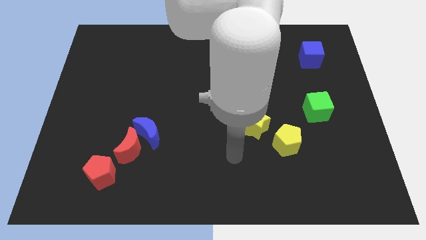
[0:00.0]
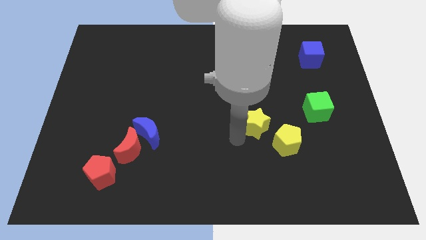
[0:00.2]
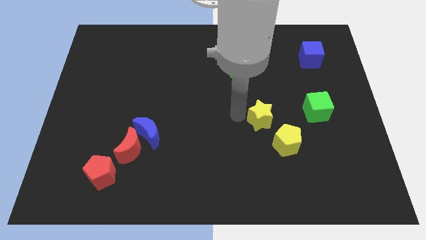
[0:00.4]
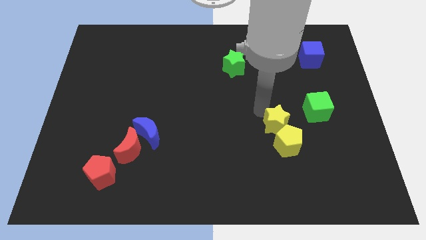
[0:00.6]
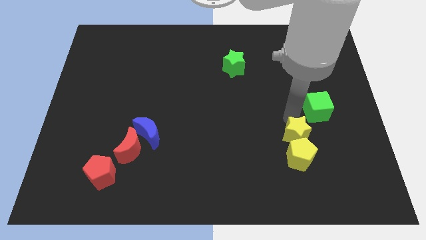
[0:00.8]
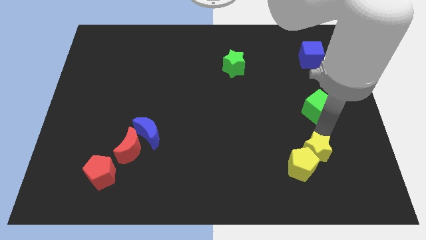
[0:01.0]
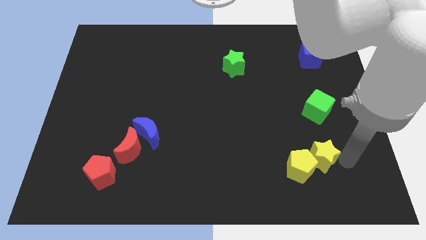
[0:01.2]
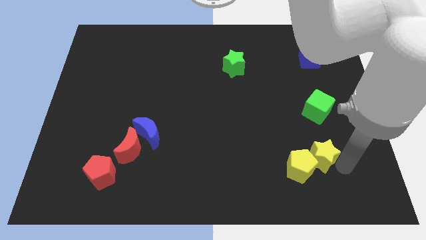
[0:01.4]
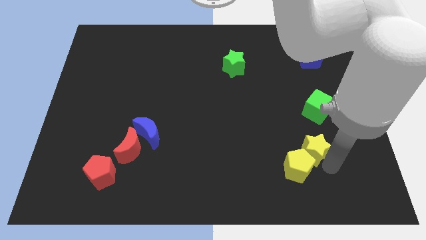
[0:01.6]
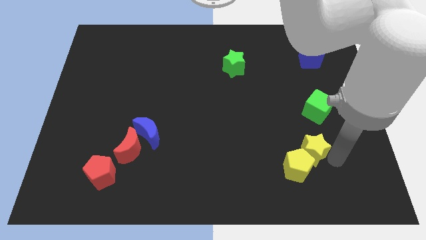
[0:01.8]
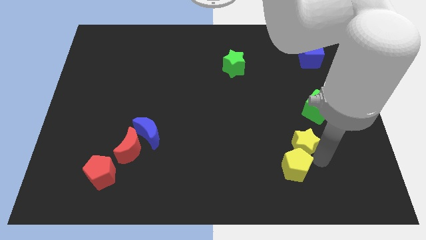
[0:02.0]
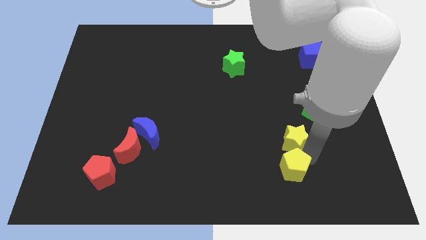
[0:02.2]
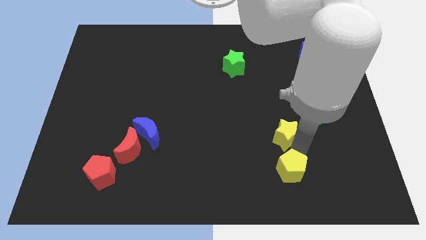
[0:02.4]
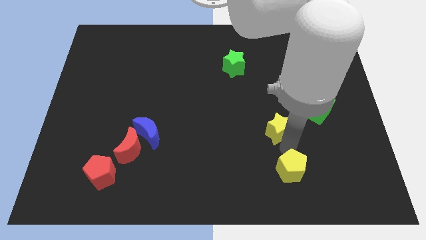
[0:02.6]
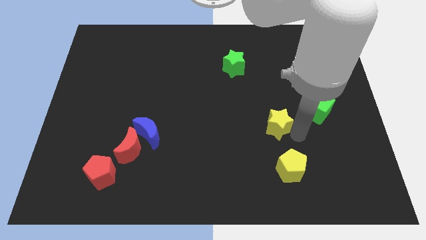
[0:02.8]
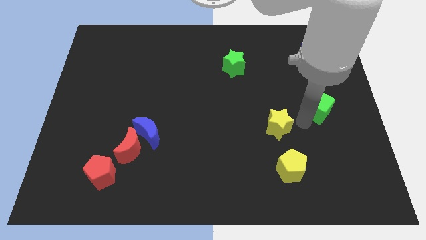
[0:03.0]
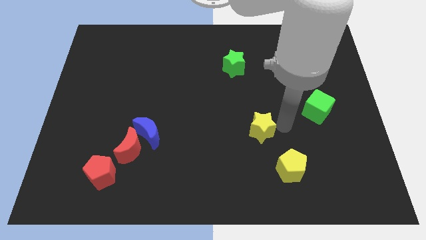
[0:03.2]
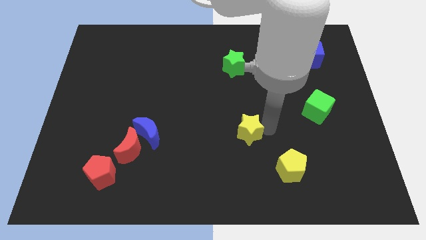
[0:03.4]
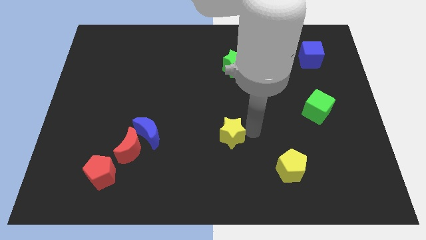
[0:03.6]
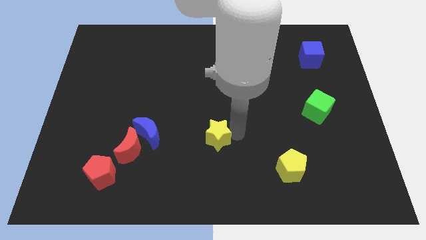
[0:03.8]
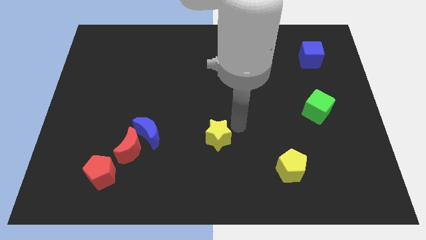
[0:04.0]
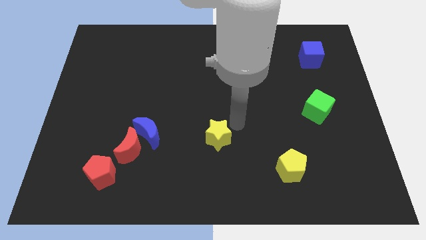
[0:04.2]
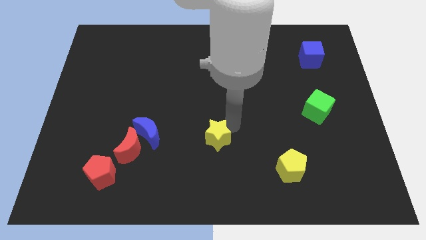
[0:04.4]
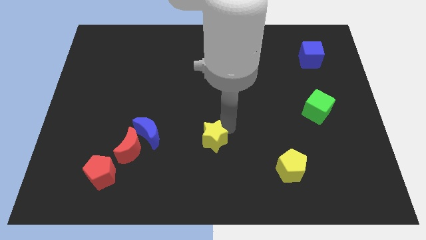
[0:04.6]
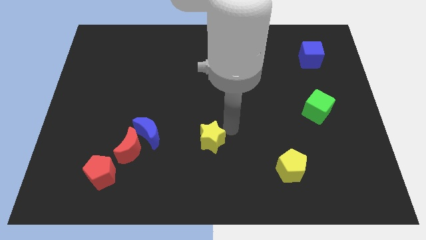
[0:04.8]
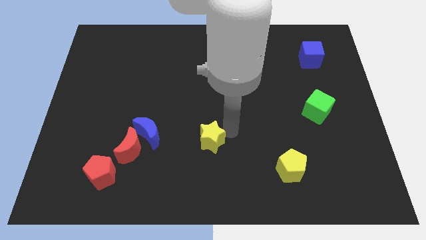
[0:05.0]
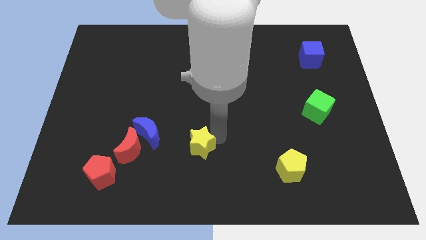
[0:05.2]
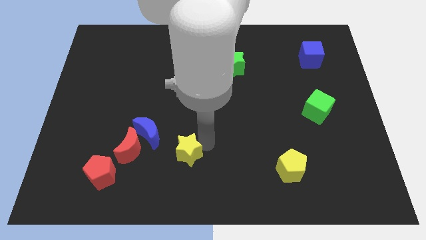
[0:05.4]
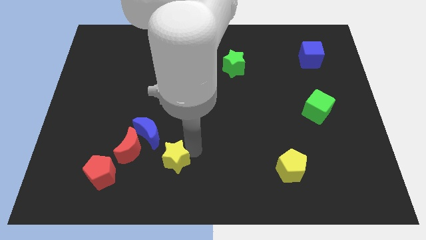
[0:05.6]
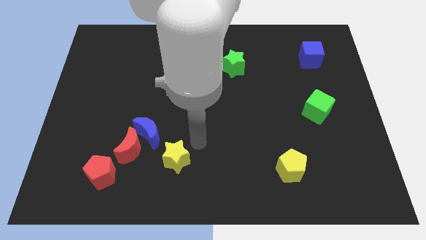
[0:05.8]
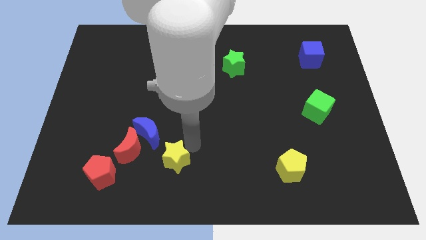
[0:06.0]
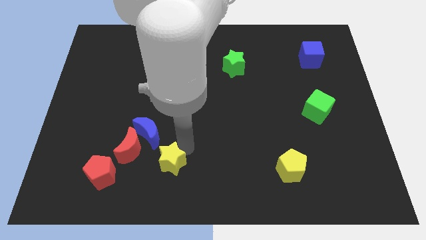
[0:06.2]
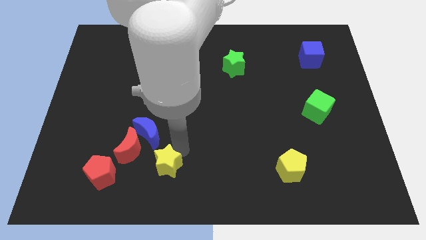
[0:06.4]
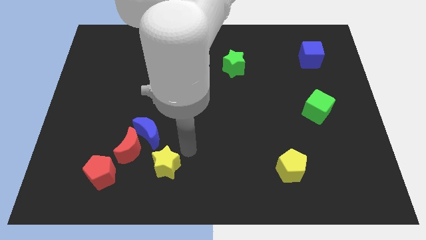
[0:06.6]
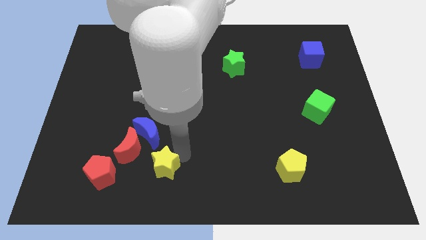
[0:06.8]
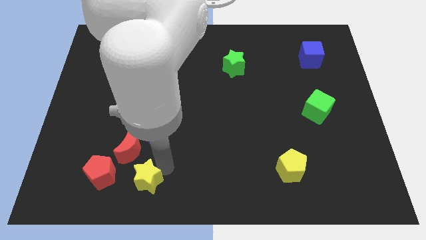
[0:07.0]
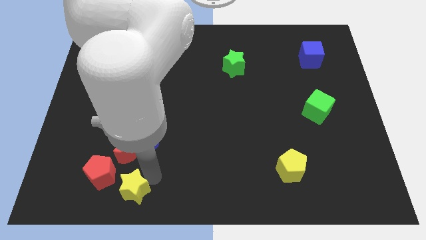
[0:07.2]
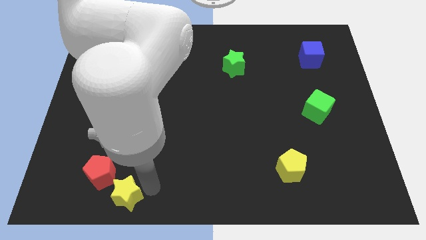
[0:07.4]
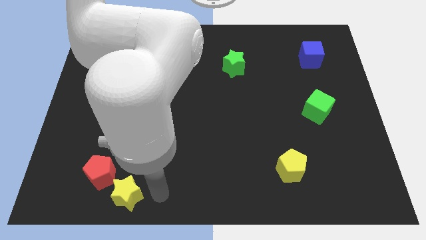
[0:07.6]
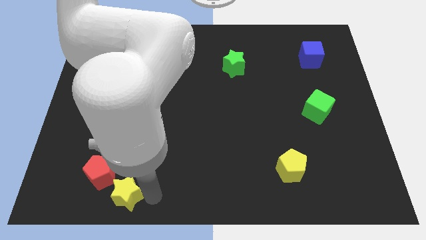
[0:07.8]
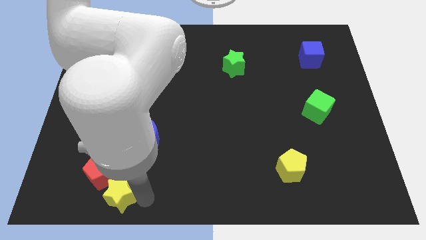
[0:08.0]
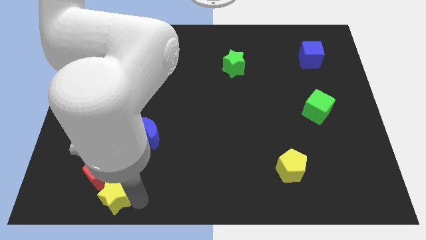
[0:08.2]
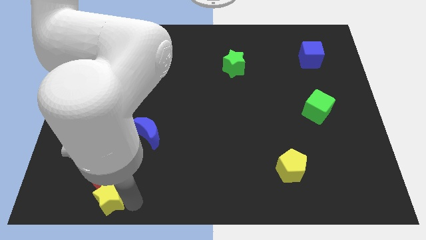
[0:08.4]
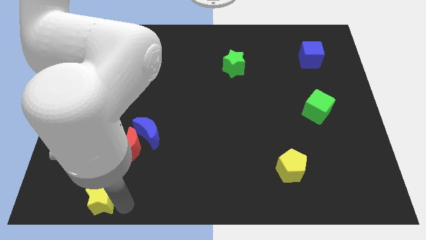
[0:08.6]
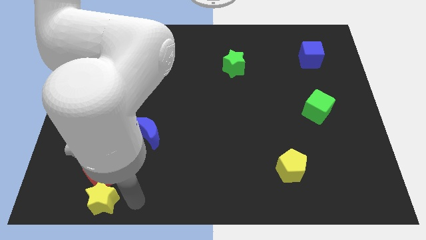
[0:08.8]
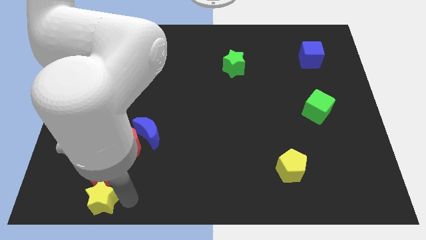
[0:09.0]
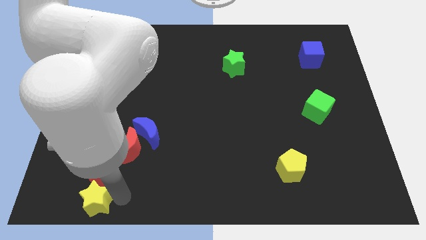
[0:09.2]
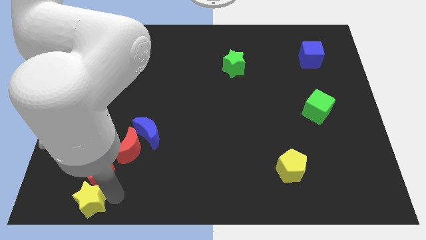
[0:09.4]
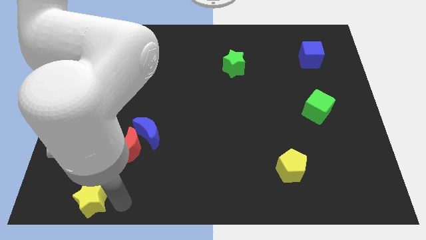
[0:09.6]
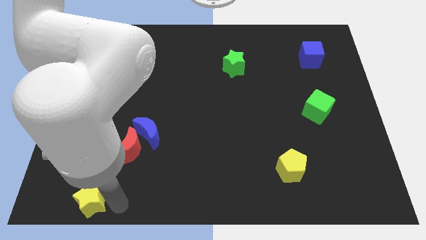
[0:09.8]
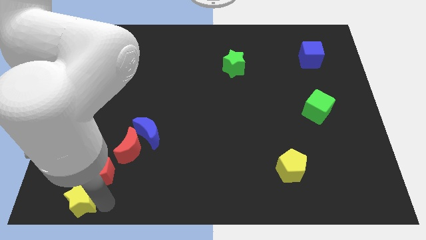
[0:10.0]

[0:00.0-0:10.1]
push the yellow star to the bottom left of the board

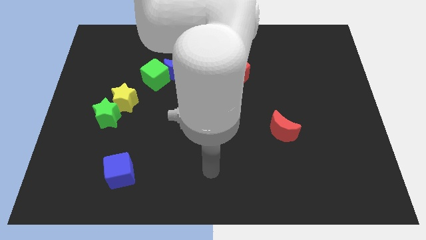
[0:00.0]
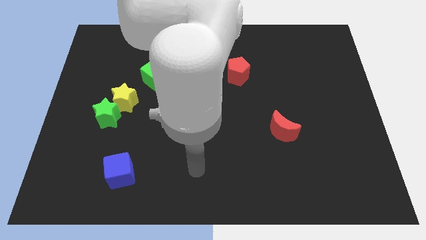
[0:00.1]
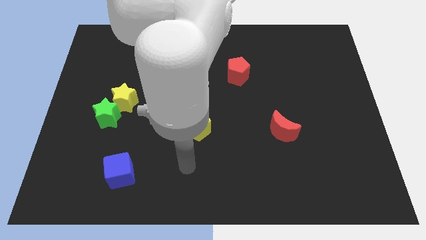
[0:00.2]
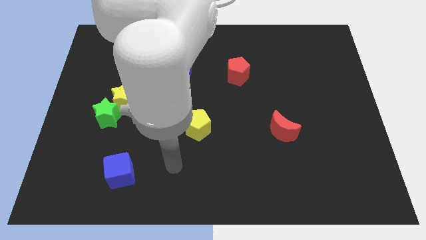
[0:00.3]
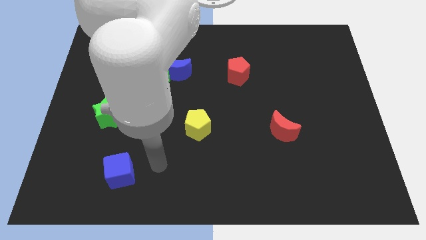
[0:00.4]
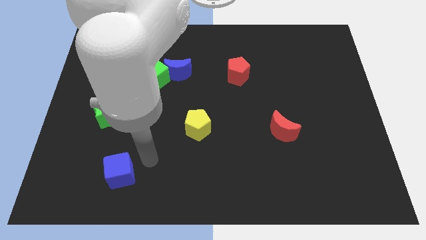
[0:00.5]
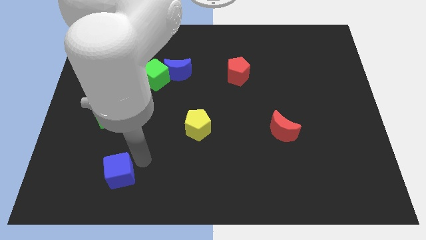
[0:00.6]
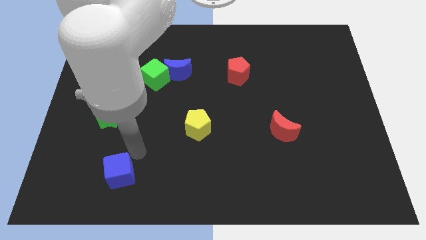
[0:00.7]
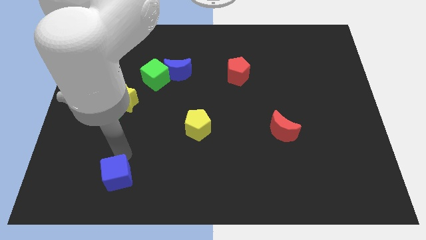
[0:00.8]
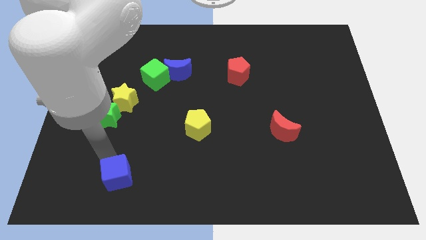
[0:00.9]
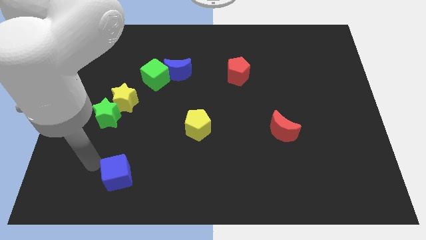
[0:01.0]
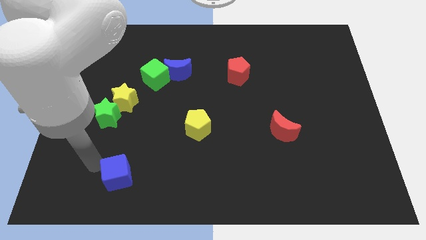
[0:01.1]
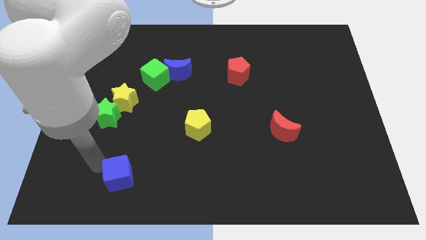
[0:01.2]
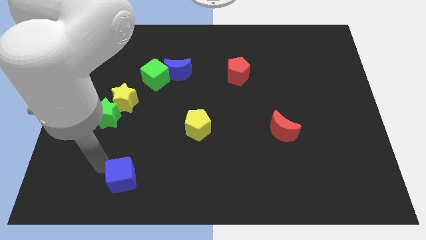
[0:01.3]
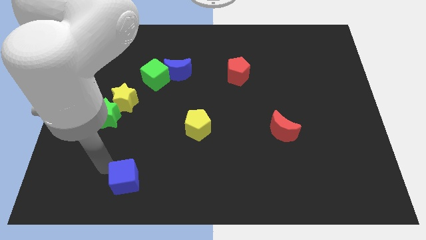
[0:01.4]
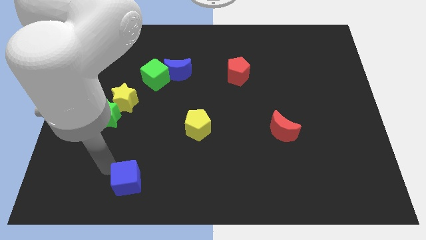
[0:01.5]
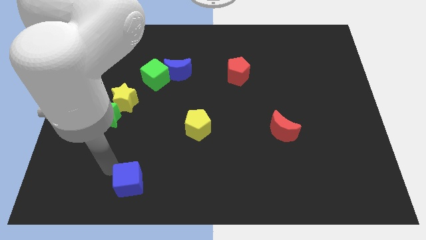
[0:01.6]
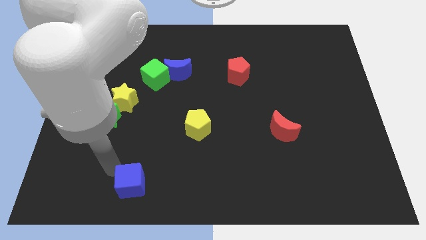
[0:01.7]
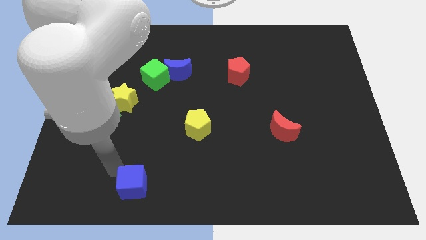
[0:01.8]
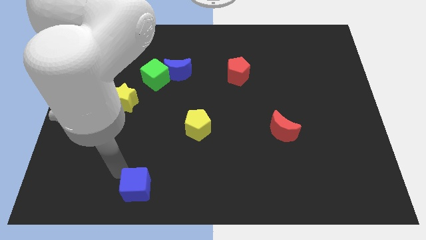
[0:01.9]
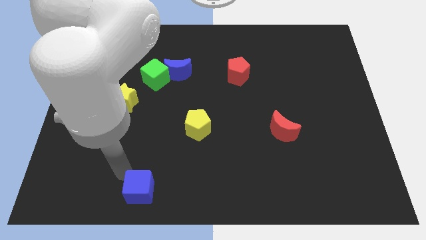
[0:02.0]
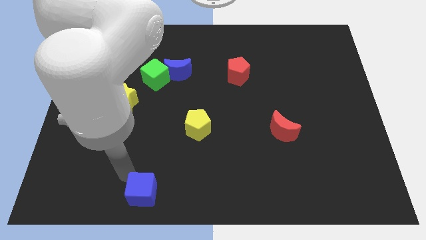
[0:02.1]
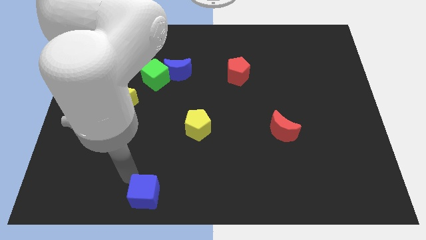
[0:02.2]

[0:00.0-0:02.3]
slide the blue cube to the bottom side
